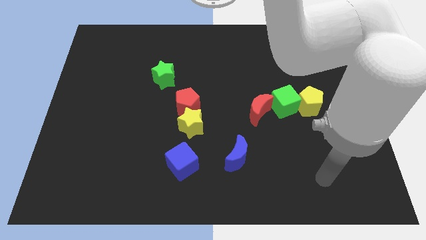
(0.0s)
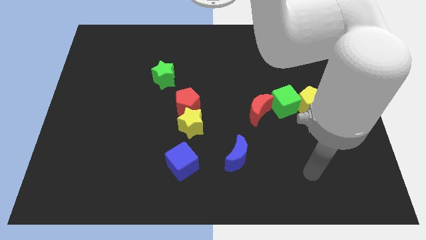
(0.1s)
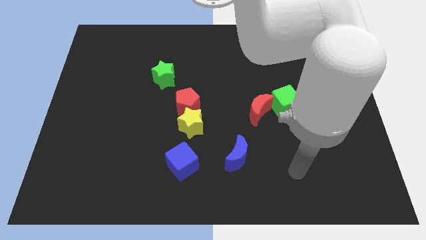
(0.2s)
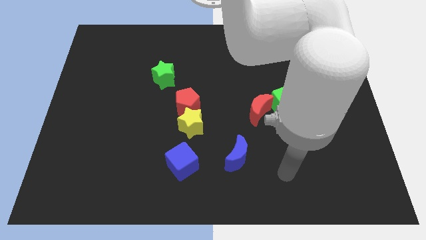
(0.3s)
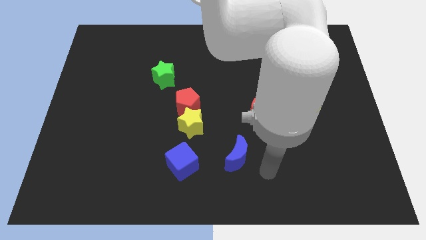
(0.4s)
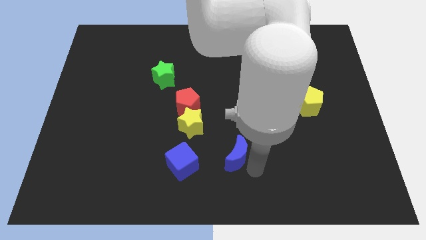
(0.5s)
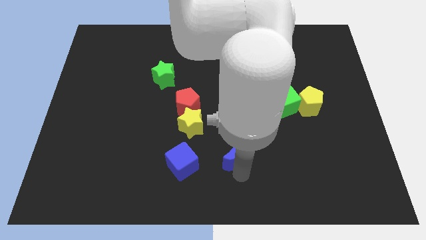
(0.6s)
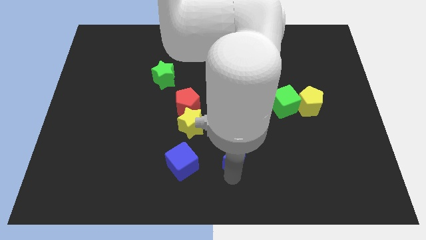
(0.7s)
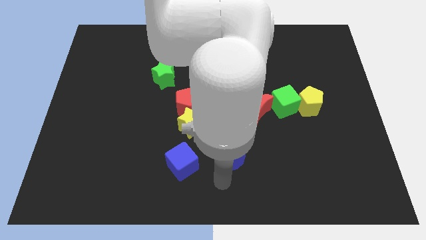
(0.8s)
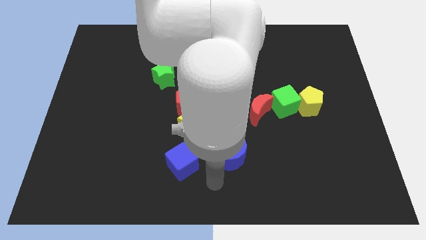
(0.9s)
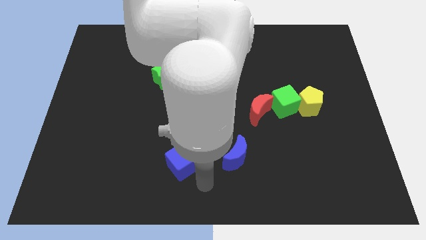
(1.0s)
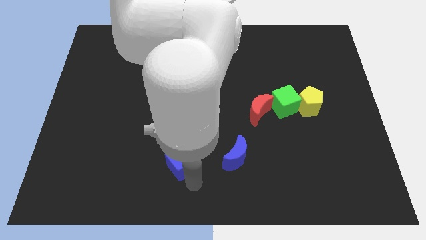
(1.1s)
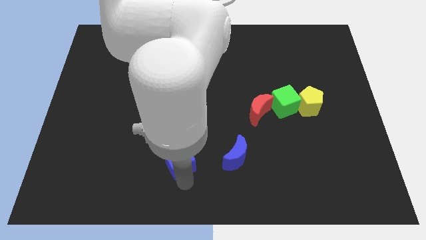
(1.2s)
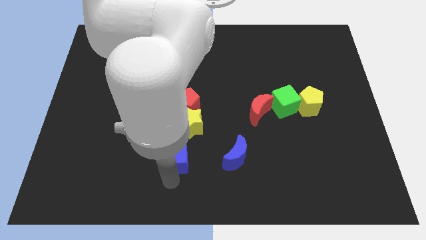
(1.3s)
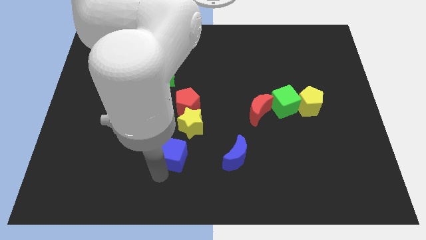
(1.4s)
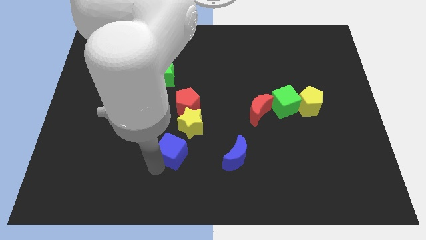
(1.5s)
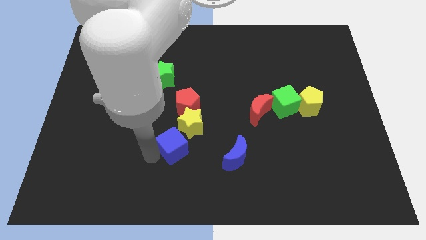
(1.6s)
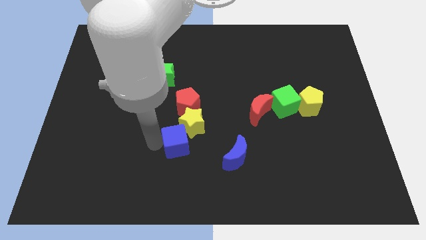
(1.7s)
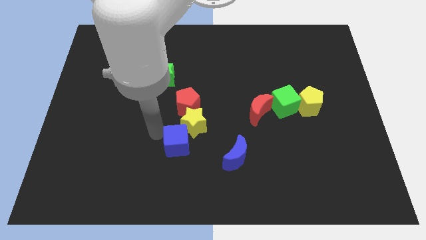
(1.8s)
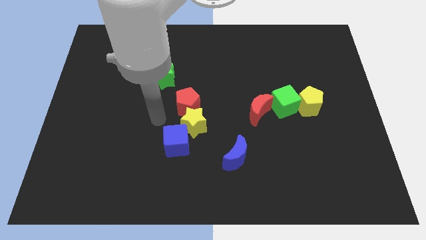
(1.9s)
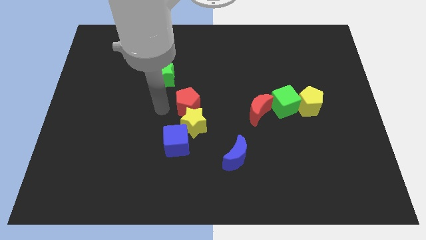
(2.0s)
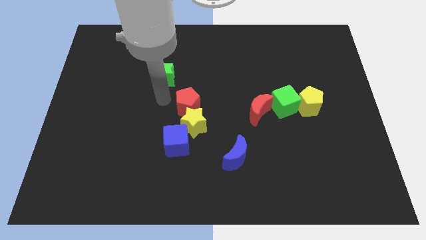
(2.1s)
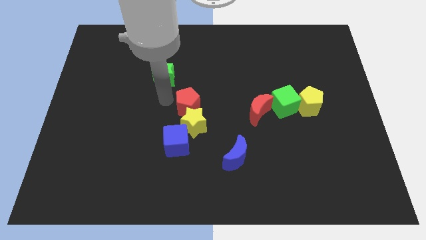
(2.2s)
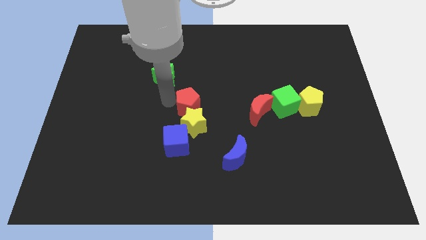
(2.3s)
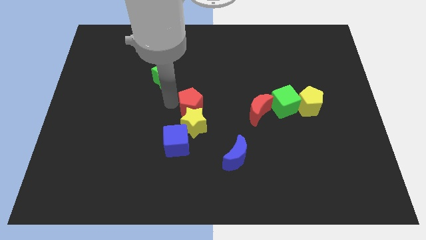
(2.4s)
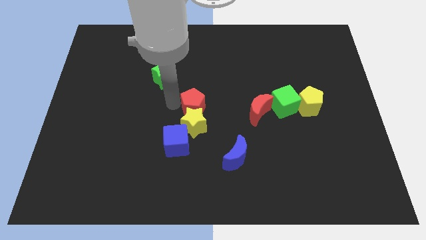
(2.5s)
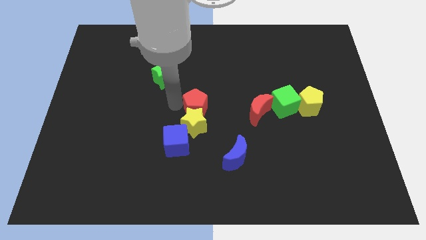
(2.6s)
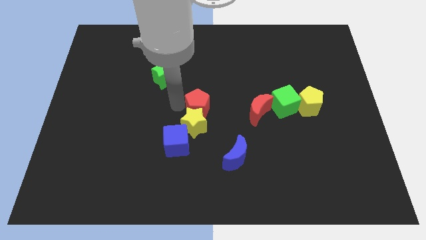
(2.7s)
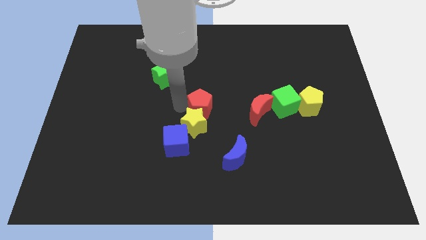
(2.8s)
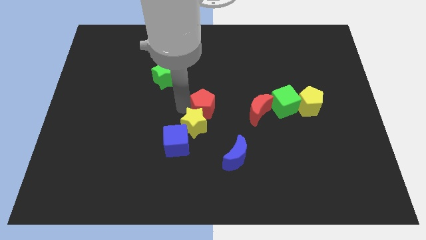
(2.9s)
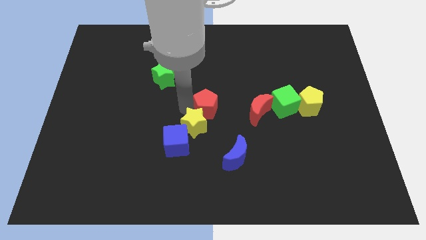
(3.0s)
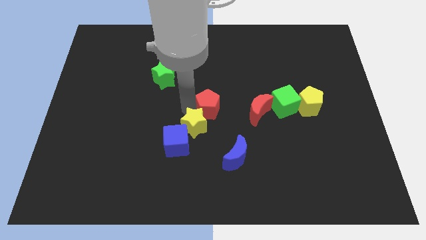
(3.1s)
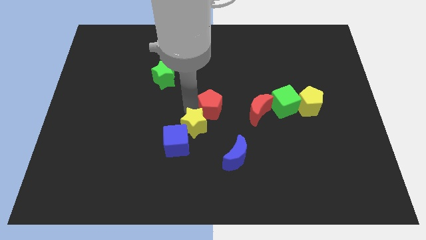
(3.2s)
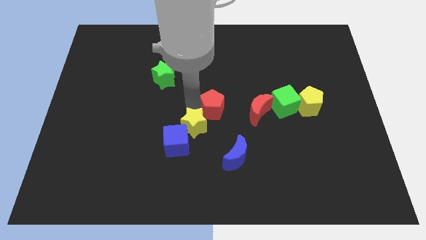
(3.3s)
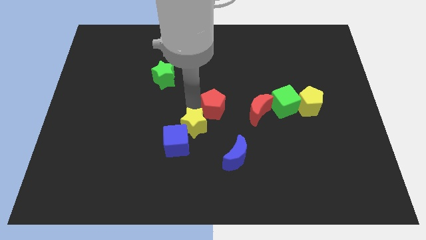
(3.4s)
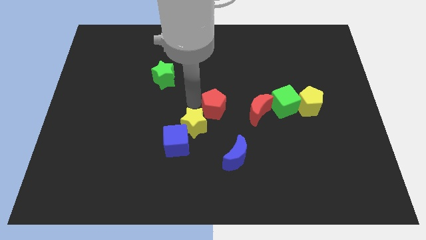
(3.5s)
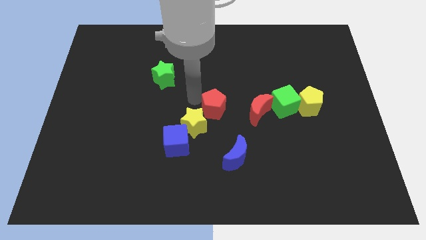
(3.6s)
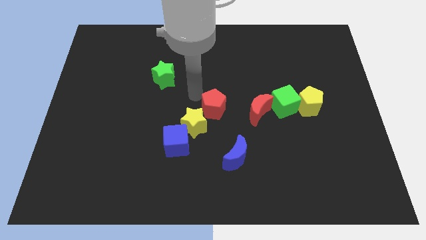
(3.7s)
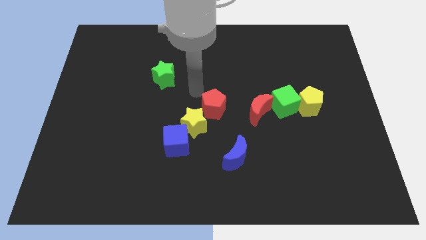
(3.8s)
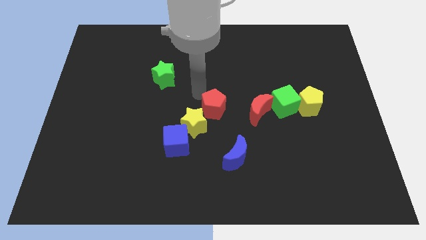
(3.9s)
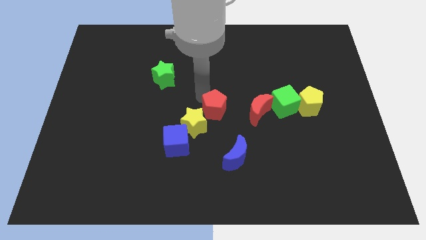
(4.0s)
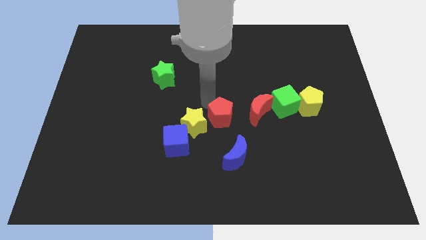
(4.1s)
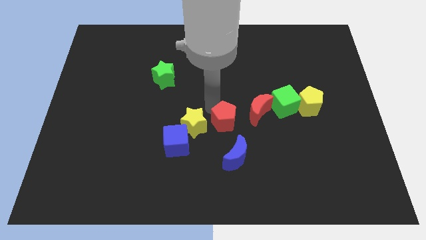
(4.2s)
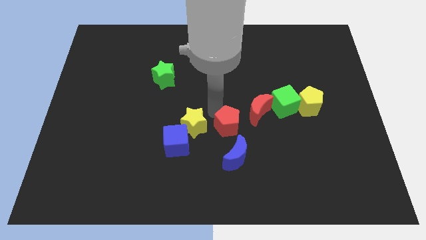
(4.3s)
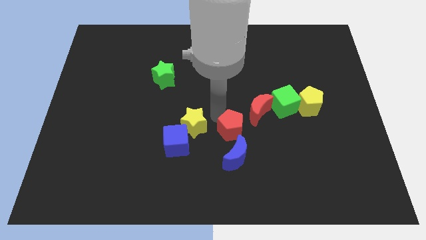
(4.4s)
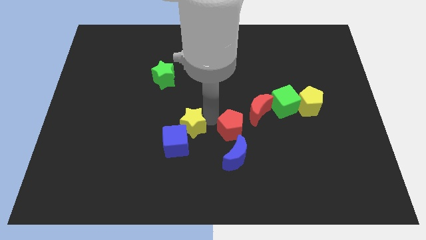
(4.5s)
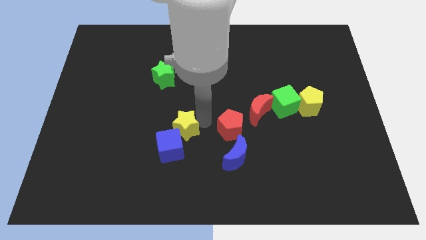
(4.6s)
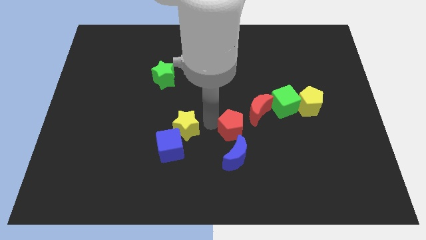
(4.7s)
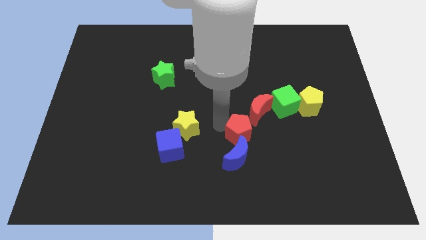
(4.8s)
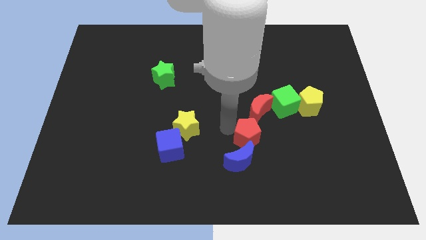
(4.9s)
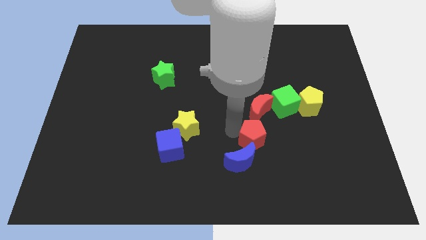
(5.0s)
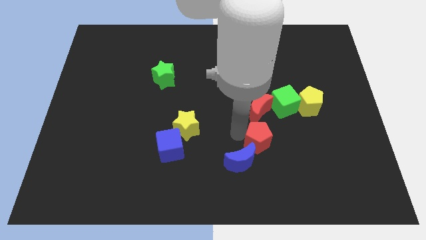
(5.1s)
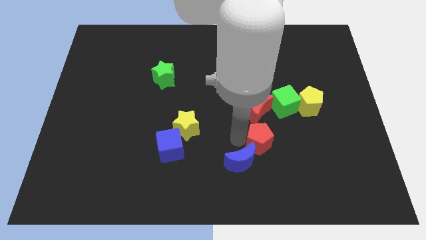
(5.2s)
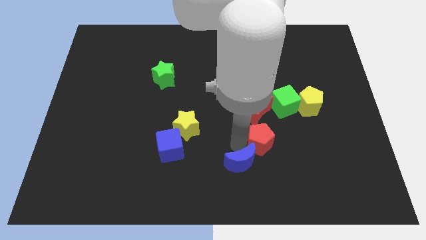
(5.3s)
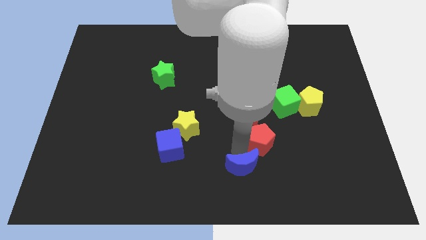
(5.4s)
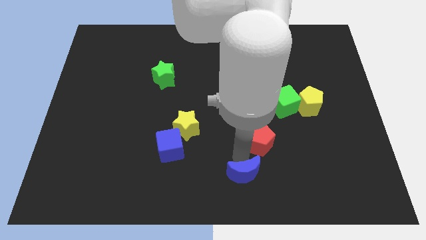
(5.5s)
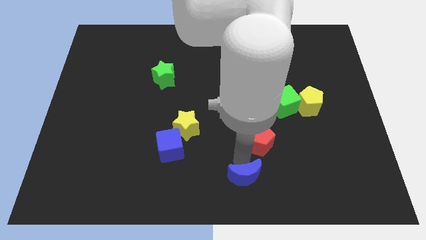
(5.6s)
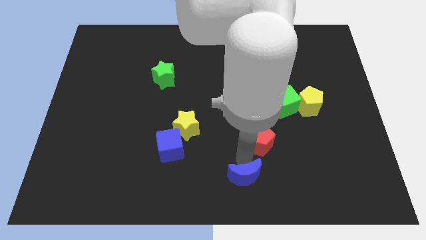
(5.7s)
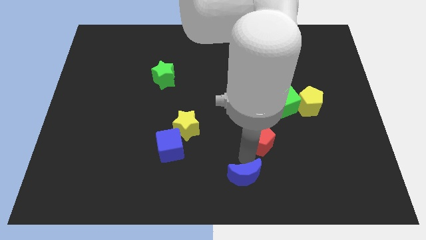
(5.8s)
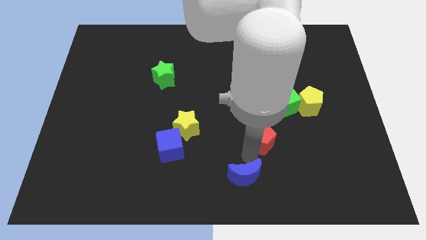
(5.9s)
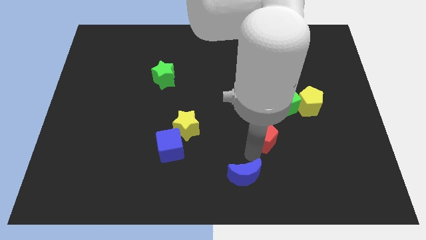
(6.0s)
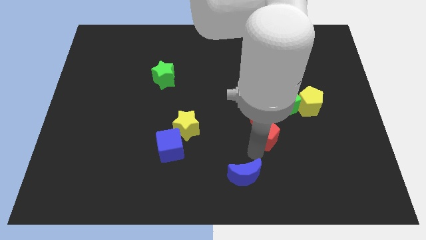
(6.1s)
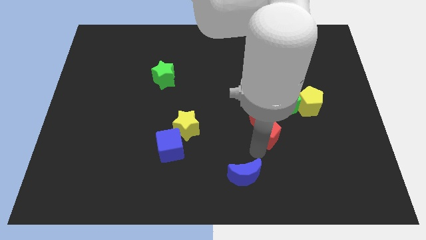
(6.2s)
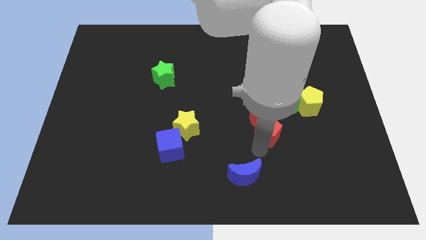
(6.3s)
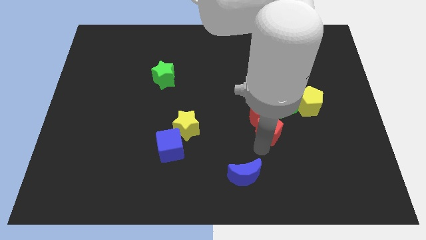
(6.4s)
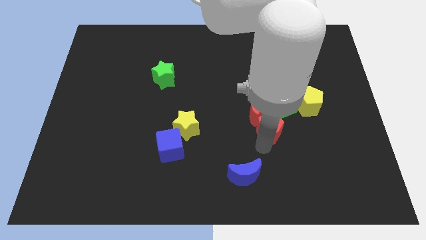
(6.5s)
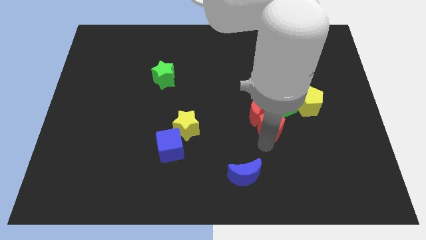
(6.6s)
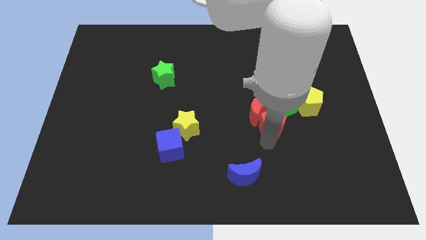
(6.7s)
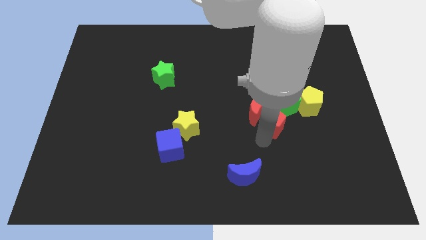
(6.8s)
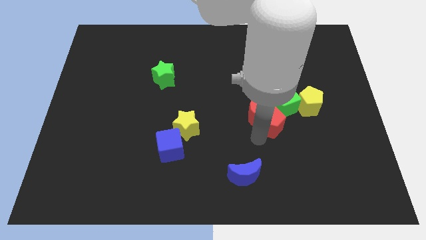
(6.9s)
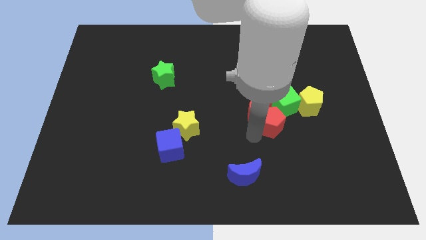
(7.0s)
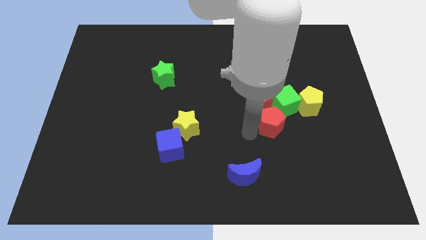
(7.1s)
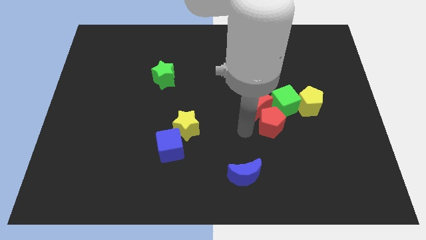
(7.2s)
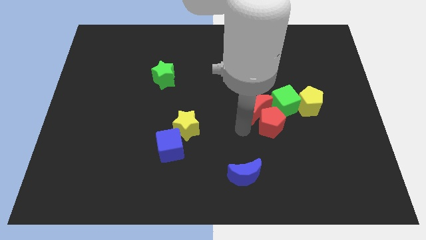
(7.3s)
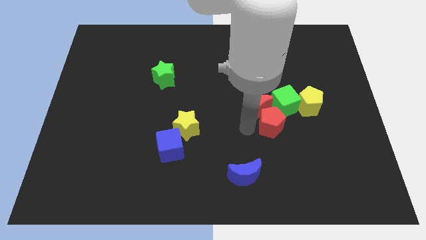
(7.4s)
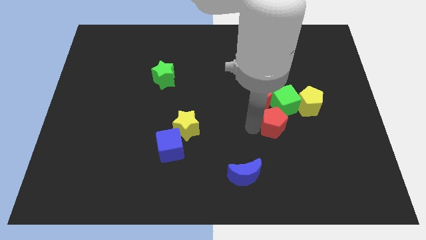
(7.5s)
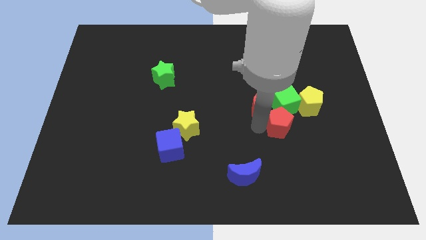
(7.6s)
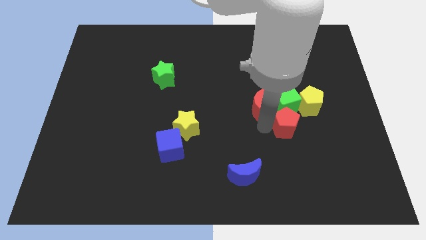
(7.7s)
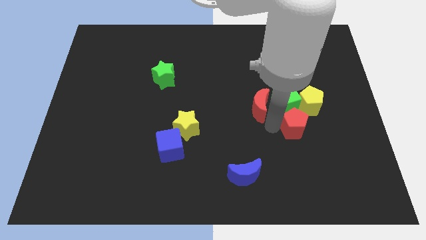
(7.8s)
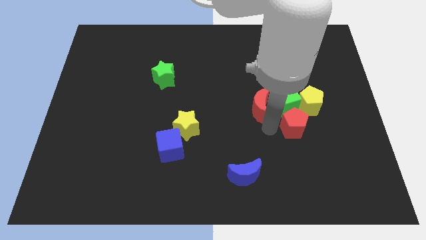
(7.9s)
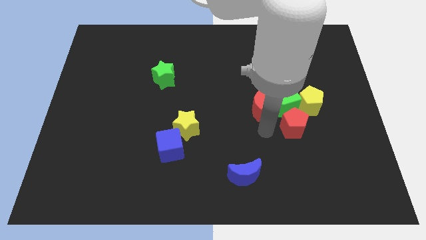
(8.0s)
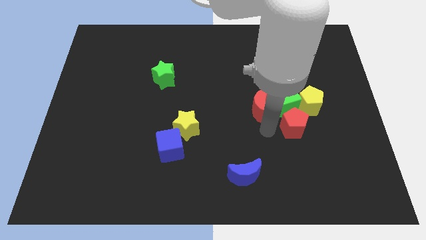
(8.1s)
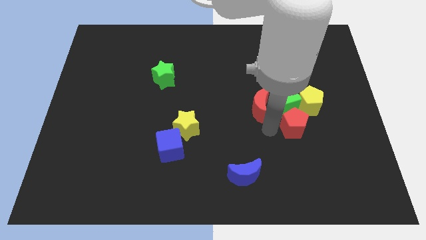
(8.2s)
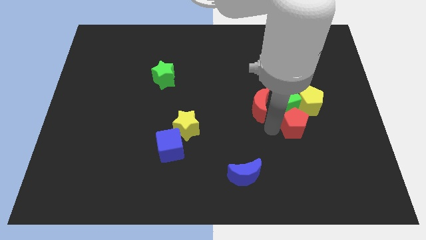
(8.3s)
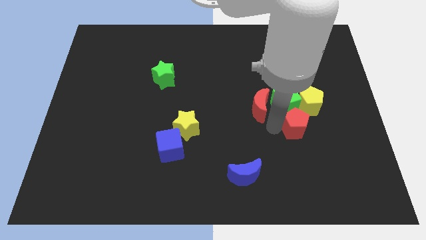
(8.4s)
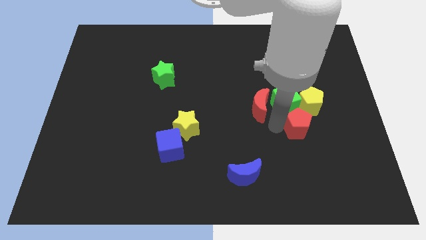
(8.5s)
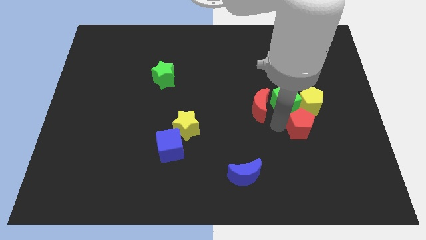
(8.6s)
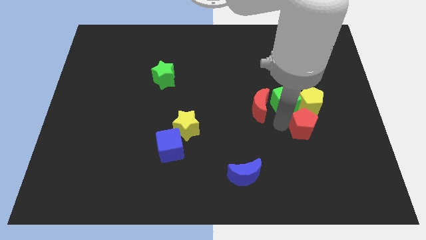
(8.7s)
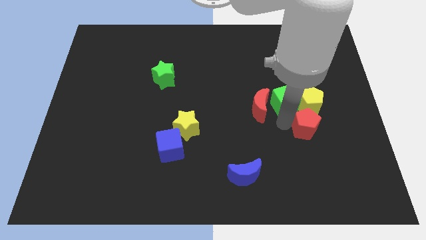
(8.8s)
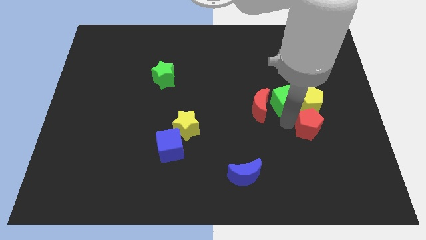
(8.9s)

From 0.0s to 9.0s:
move the red pentagon close to the yellow pentagon
